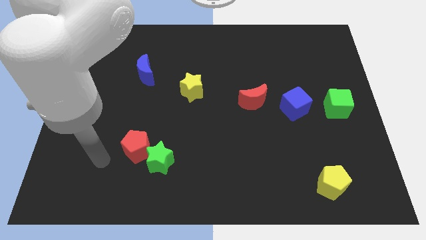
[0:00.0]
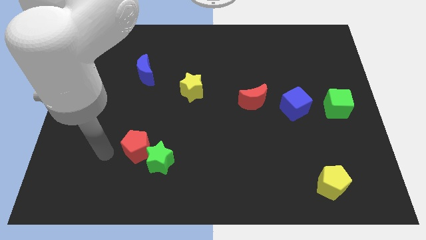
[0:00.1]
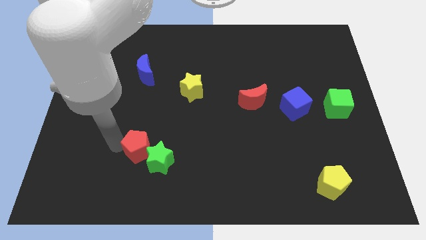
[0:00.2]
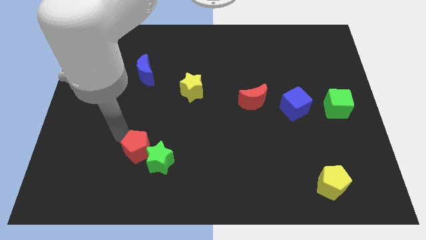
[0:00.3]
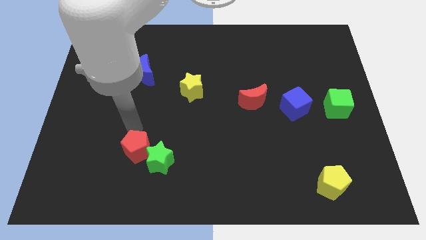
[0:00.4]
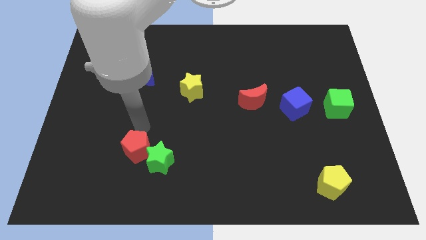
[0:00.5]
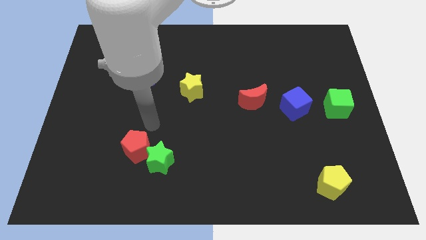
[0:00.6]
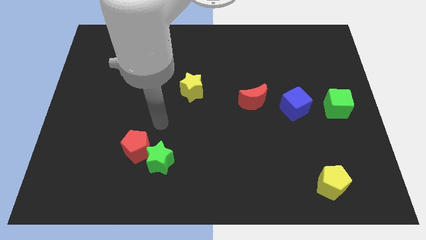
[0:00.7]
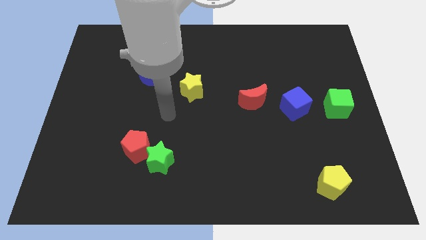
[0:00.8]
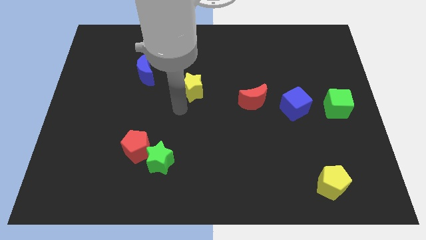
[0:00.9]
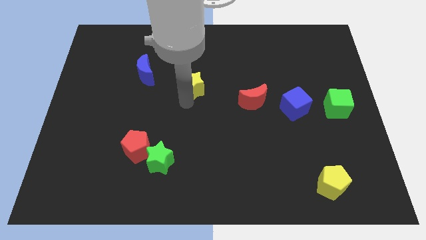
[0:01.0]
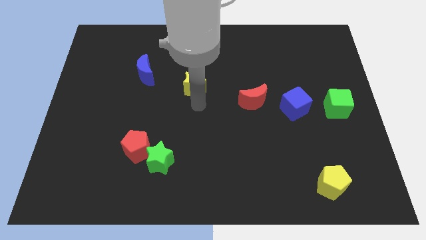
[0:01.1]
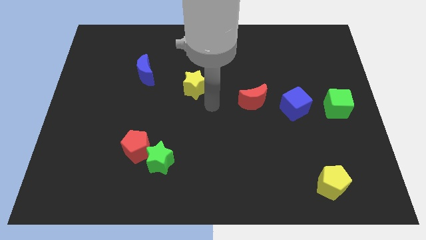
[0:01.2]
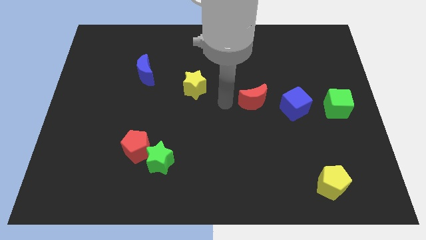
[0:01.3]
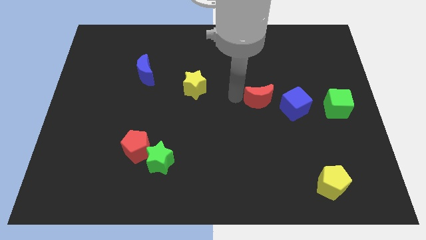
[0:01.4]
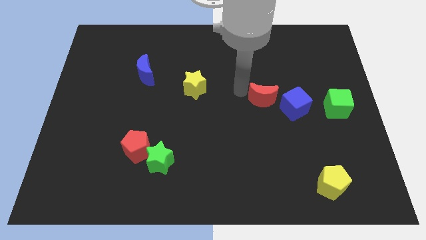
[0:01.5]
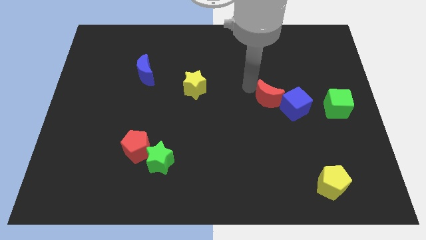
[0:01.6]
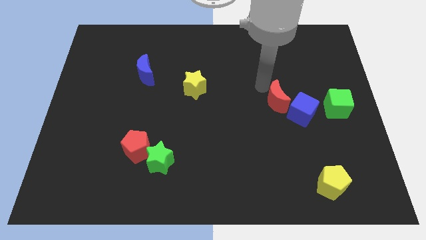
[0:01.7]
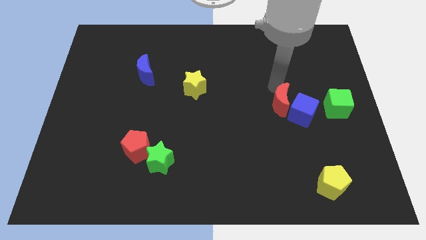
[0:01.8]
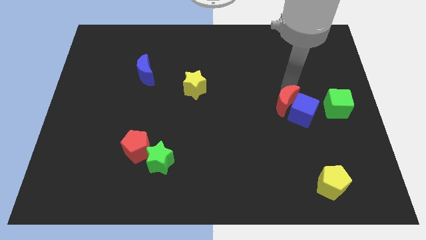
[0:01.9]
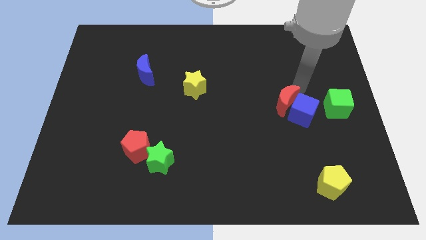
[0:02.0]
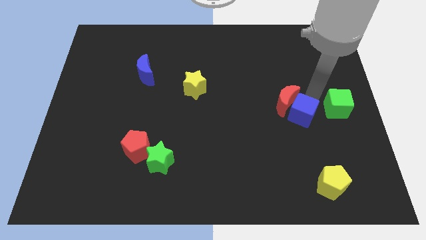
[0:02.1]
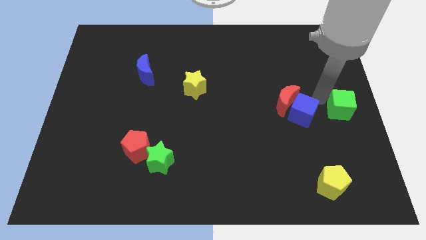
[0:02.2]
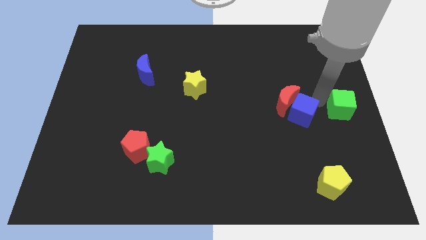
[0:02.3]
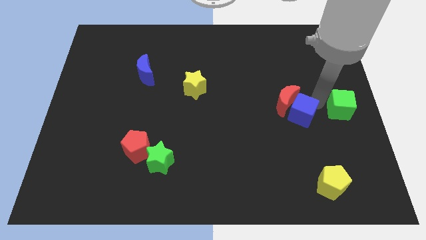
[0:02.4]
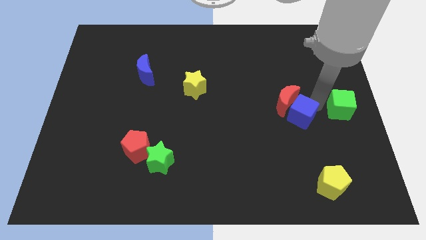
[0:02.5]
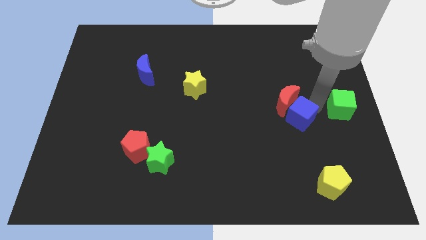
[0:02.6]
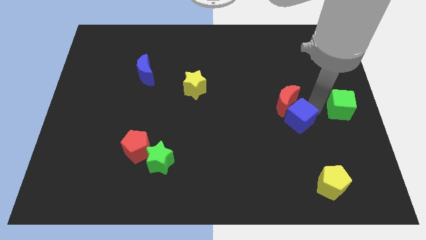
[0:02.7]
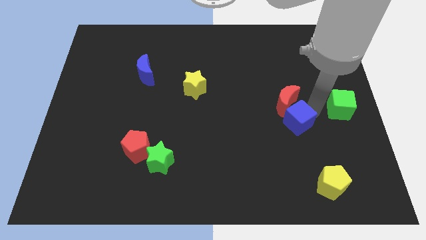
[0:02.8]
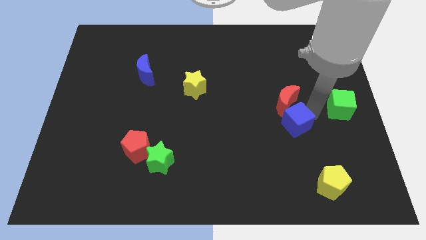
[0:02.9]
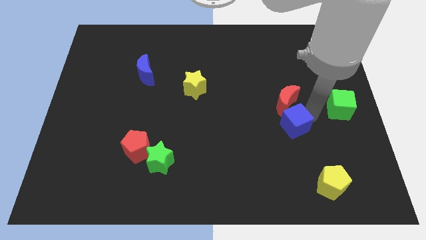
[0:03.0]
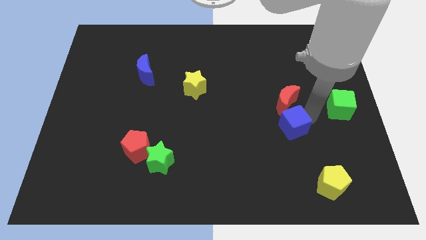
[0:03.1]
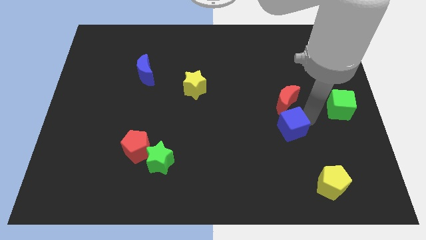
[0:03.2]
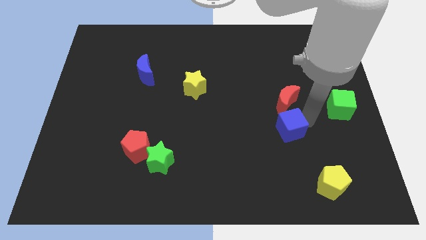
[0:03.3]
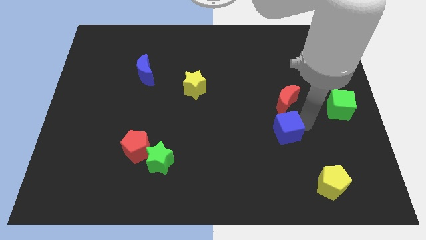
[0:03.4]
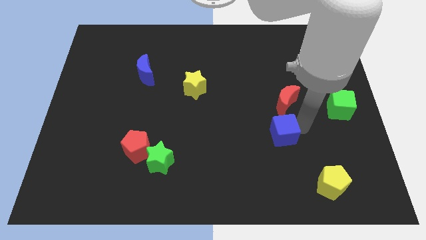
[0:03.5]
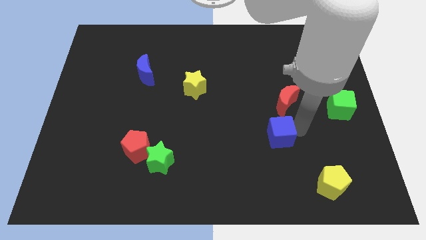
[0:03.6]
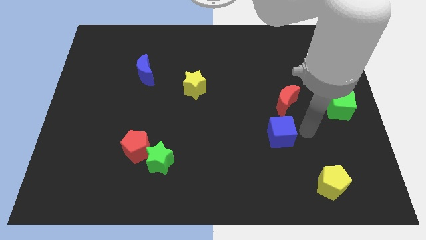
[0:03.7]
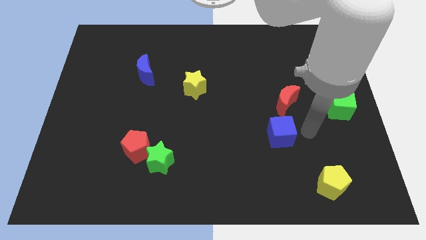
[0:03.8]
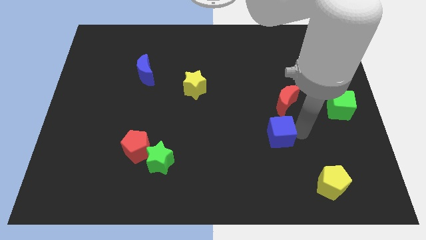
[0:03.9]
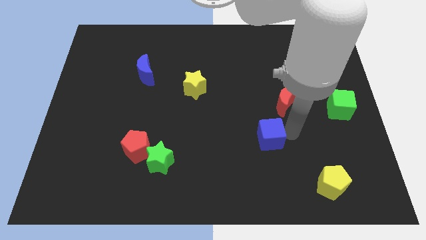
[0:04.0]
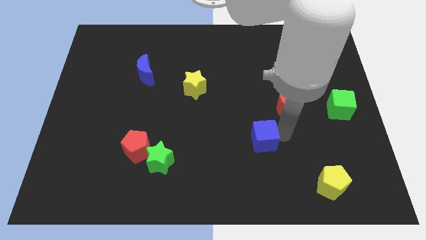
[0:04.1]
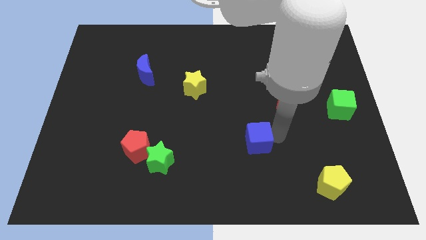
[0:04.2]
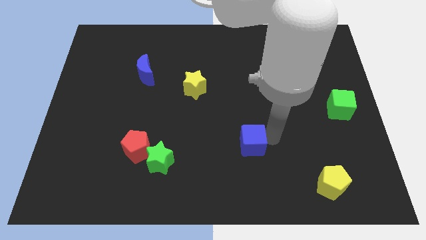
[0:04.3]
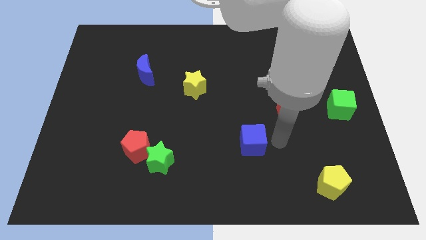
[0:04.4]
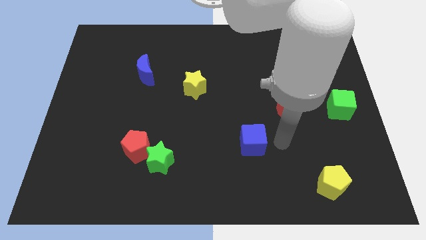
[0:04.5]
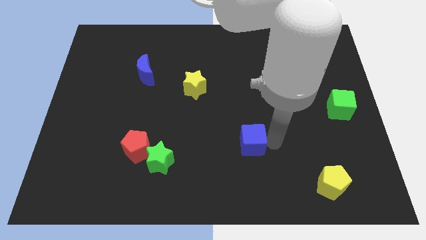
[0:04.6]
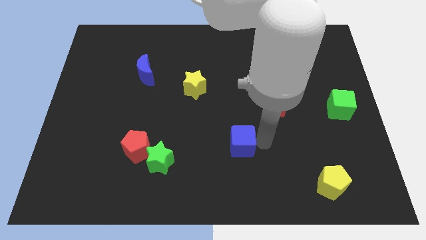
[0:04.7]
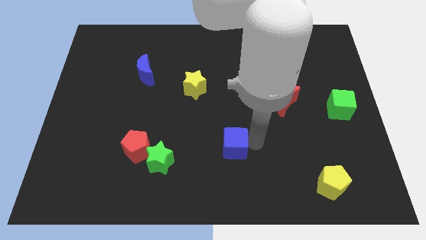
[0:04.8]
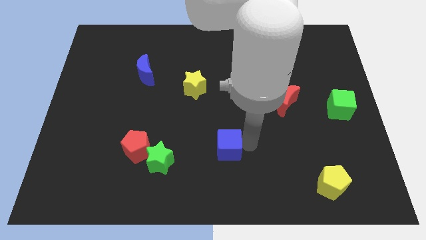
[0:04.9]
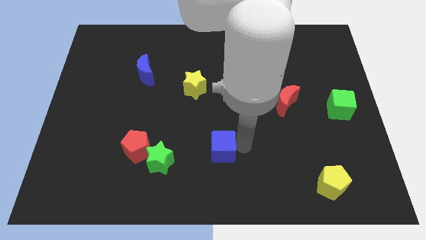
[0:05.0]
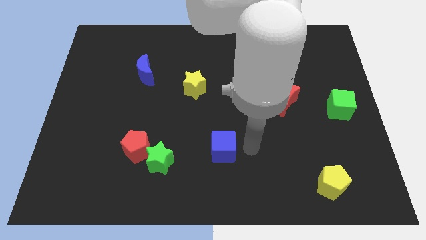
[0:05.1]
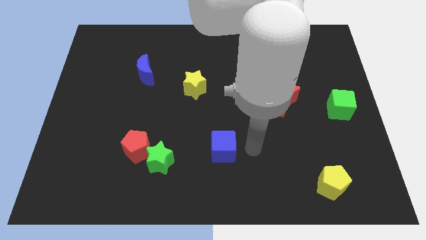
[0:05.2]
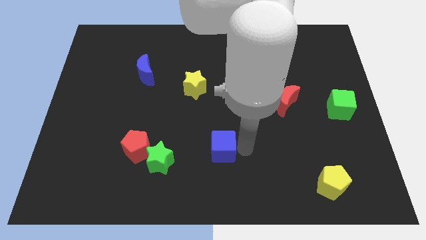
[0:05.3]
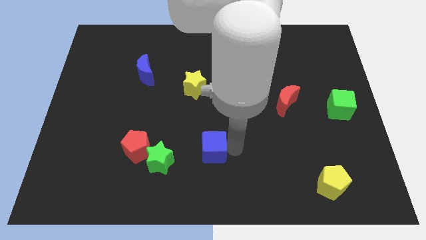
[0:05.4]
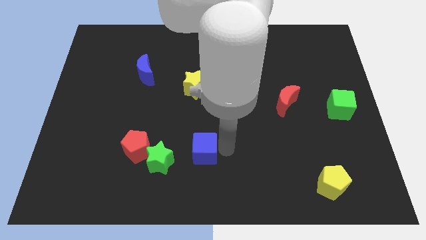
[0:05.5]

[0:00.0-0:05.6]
slide the blue cube to the right side of the red pentagon
